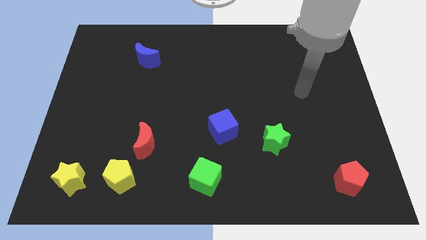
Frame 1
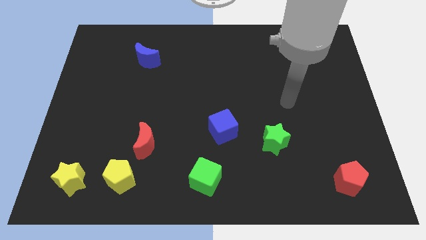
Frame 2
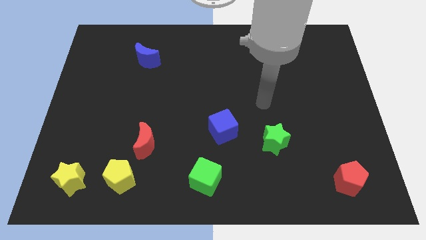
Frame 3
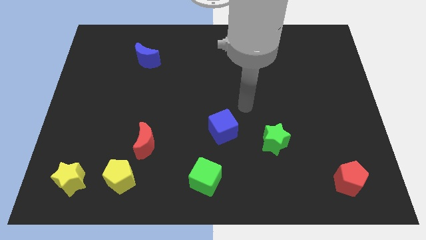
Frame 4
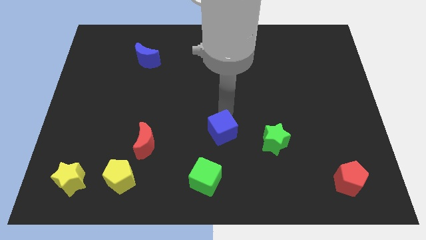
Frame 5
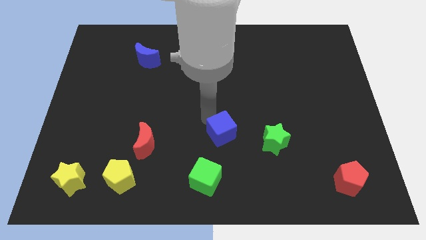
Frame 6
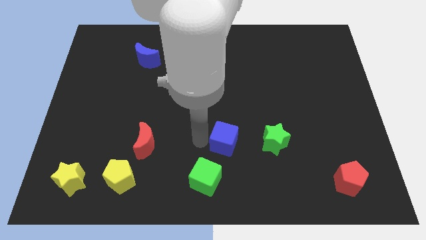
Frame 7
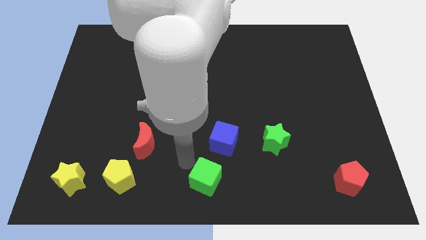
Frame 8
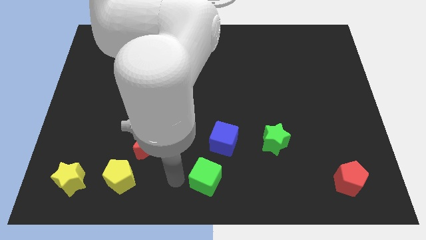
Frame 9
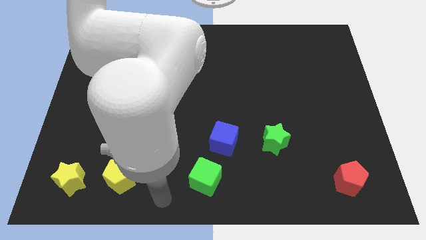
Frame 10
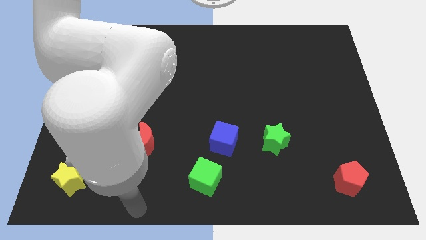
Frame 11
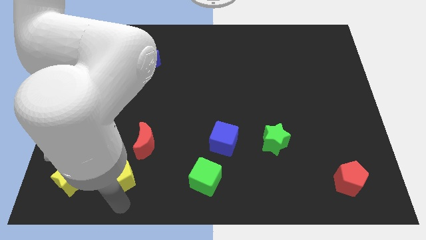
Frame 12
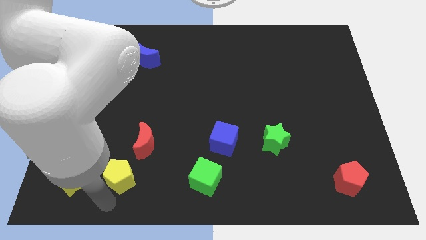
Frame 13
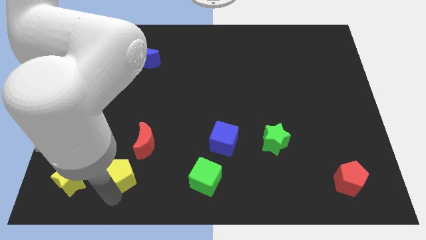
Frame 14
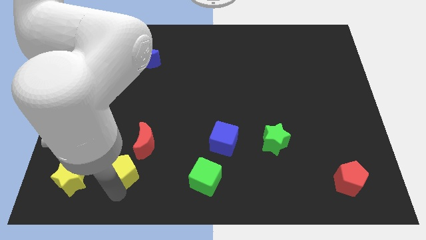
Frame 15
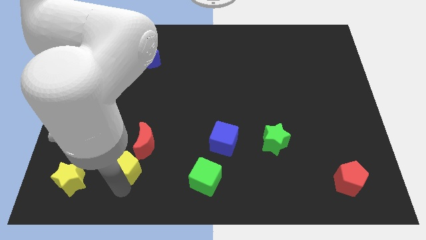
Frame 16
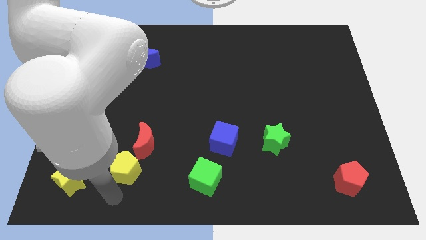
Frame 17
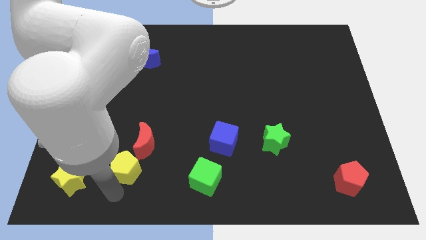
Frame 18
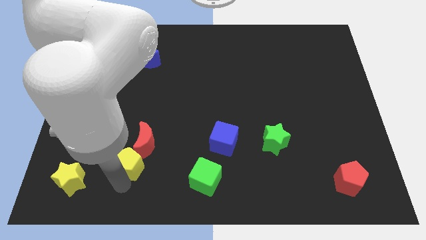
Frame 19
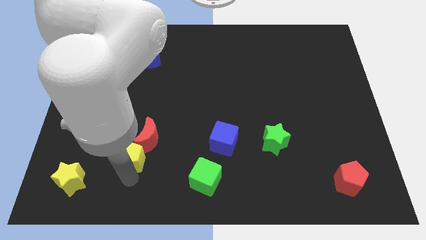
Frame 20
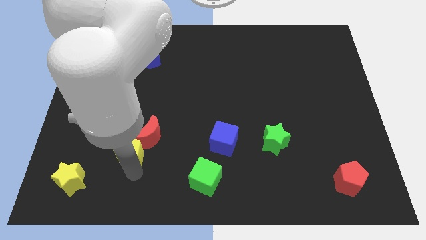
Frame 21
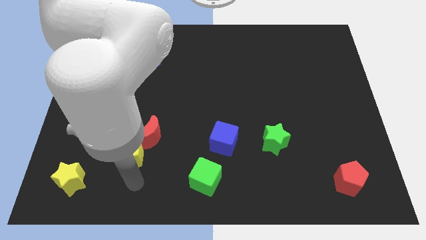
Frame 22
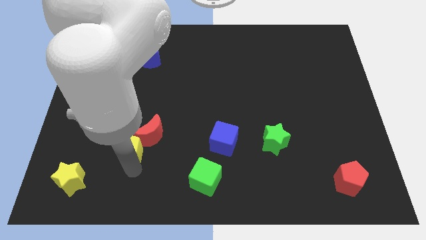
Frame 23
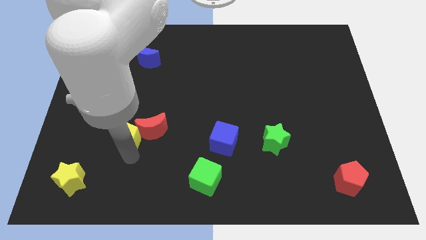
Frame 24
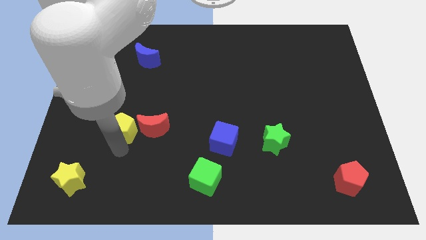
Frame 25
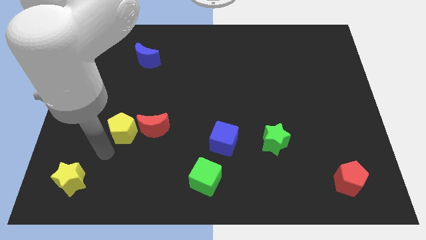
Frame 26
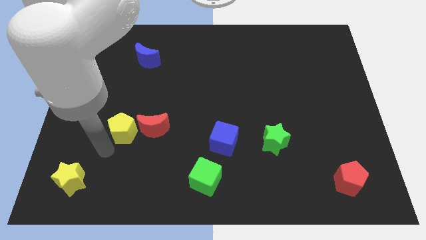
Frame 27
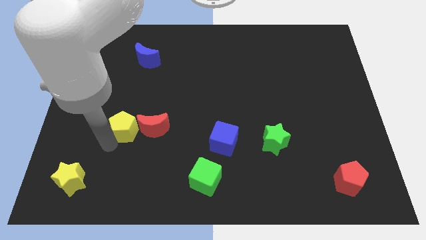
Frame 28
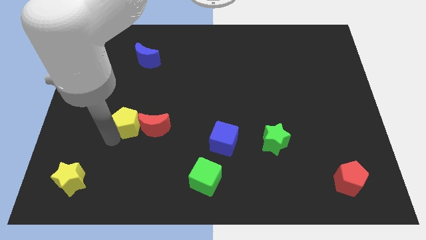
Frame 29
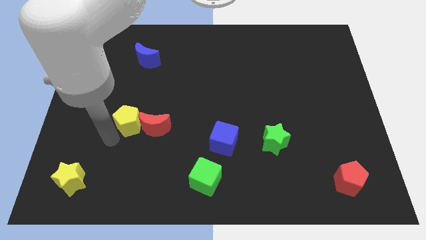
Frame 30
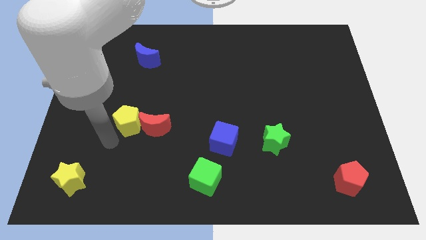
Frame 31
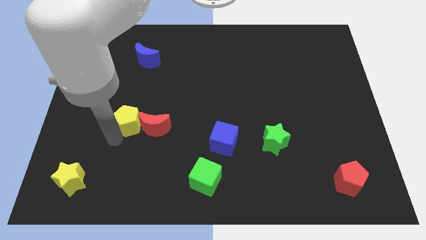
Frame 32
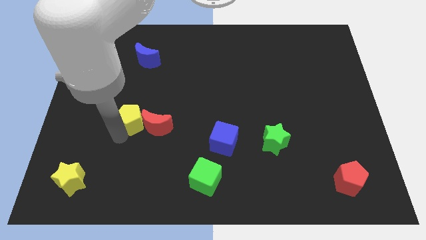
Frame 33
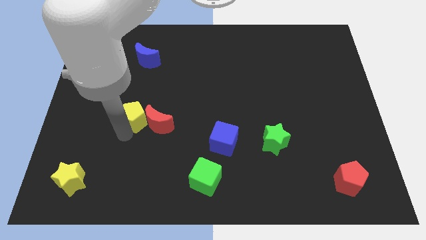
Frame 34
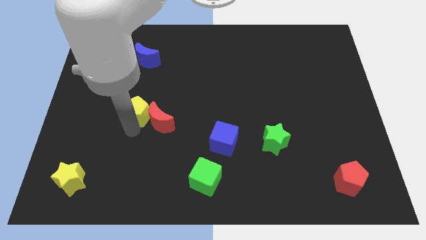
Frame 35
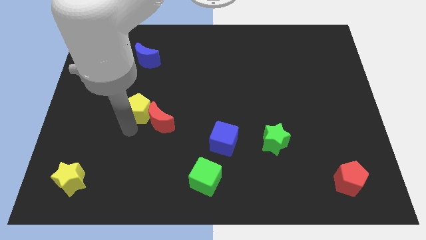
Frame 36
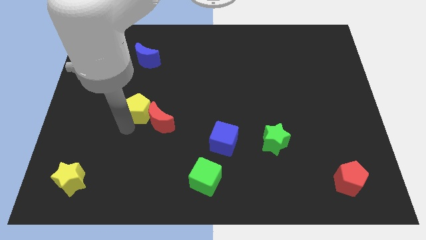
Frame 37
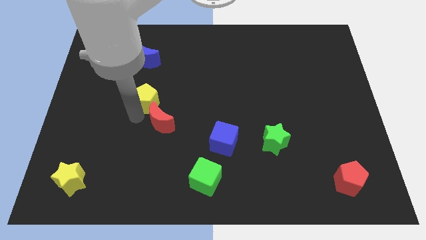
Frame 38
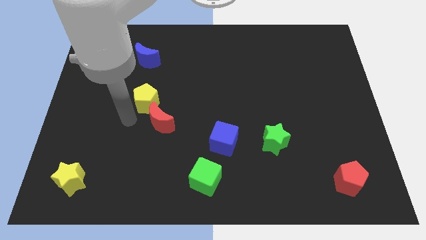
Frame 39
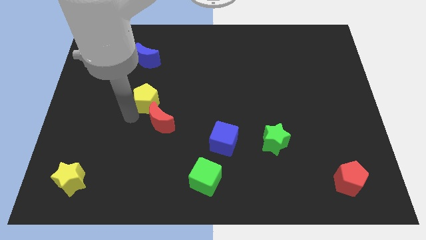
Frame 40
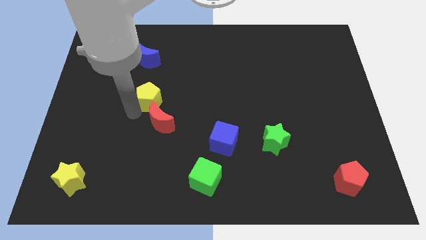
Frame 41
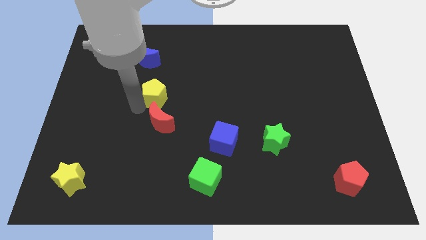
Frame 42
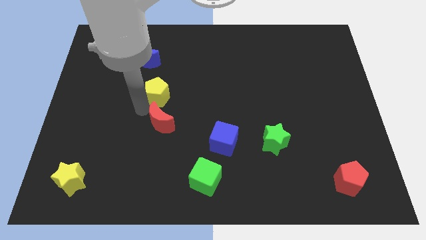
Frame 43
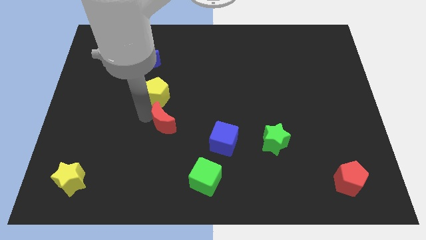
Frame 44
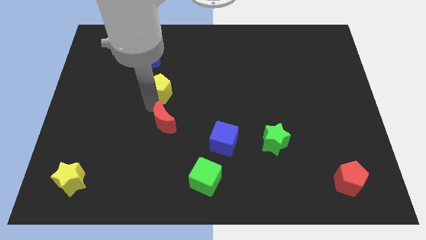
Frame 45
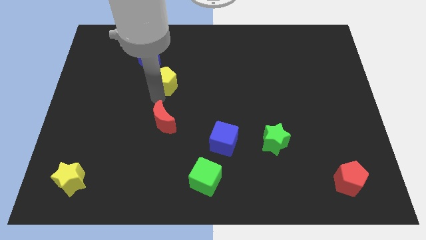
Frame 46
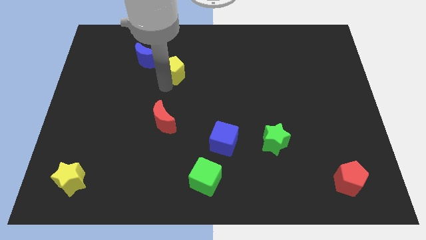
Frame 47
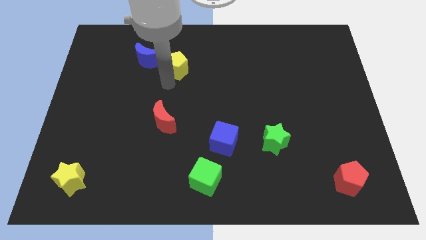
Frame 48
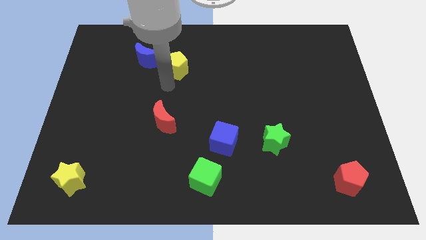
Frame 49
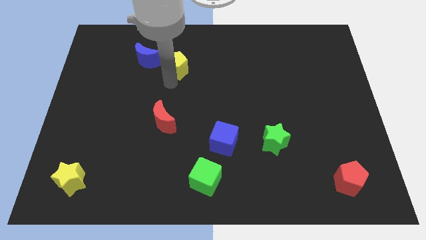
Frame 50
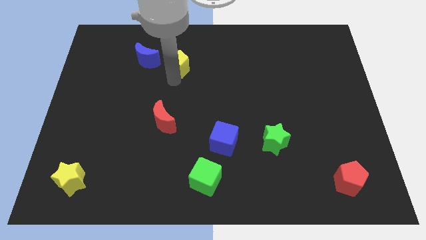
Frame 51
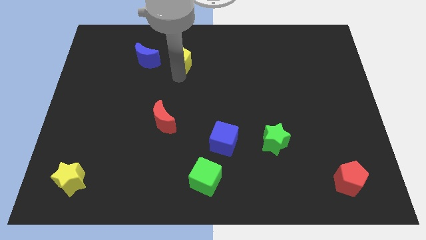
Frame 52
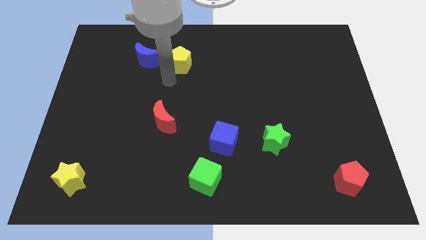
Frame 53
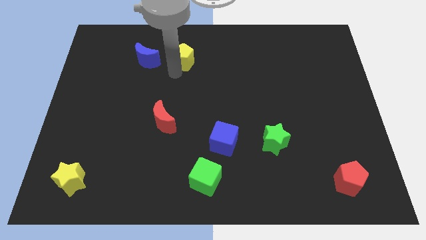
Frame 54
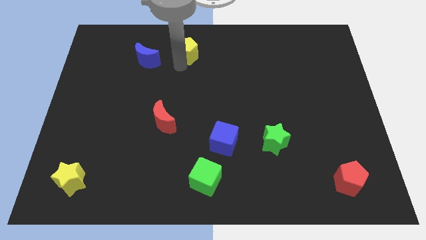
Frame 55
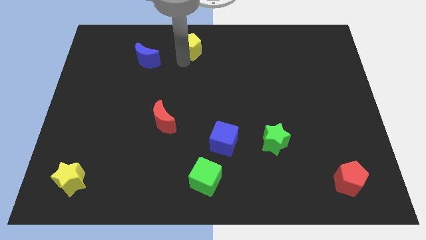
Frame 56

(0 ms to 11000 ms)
push the yellow pentagon to the towards your base

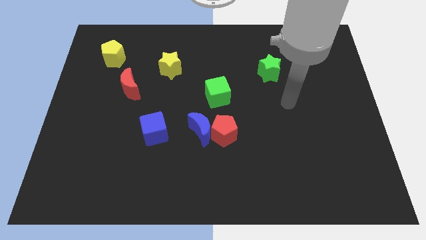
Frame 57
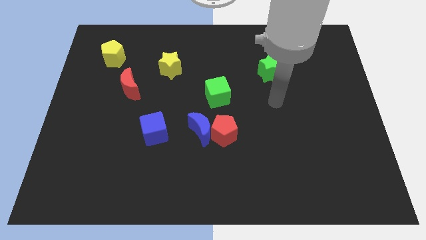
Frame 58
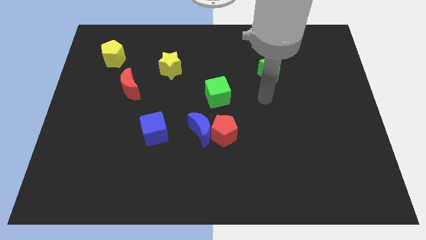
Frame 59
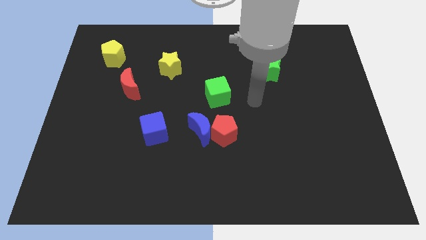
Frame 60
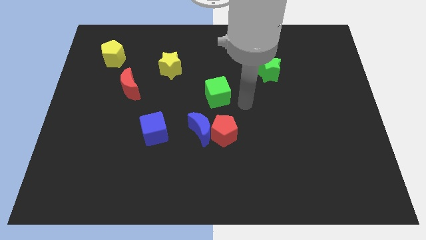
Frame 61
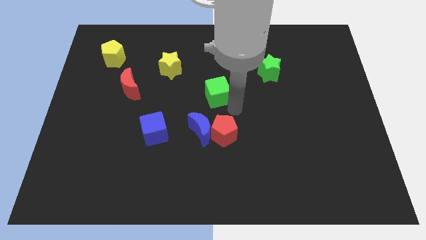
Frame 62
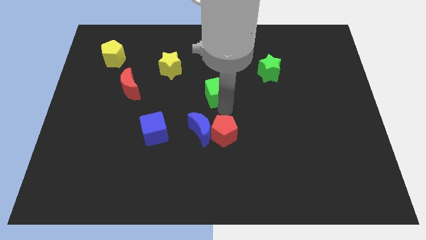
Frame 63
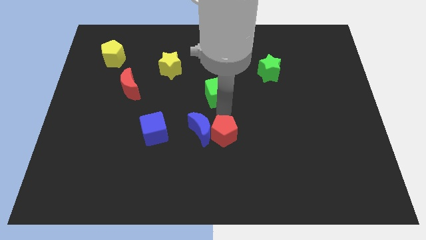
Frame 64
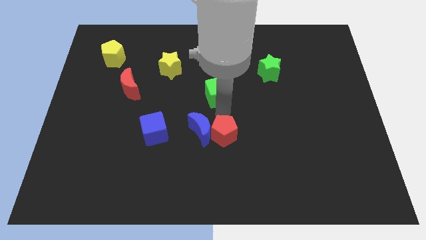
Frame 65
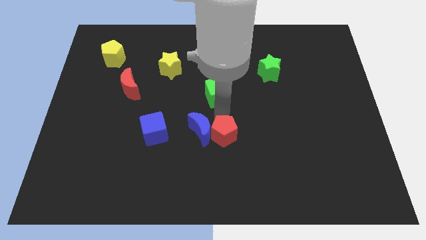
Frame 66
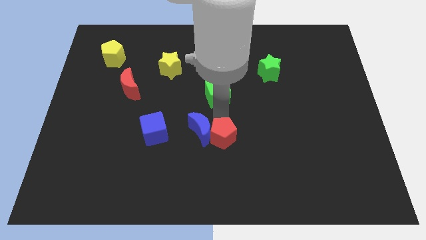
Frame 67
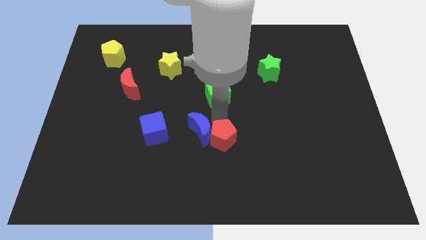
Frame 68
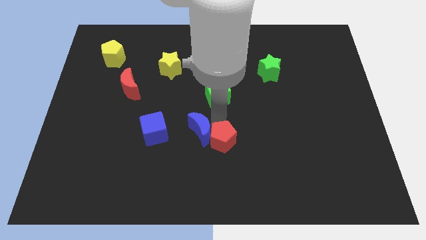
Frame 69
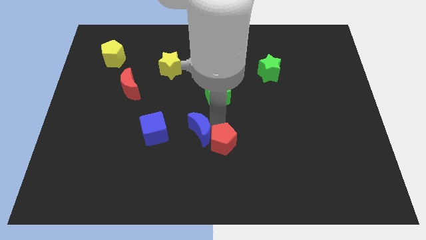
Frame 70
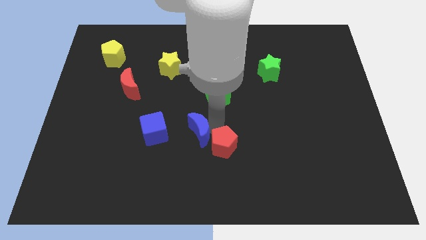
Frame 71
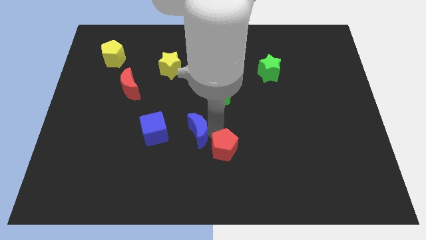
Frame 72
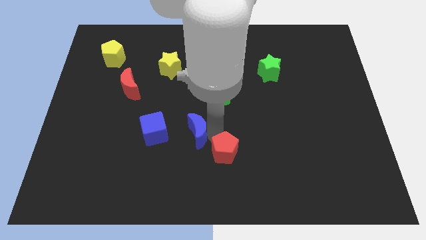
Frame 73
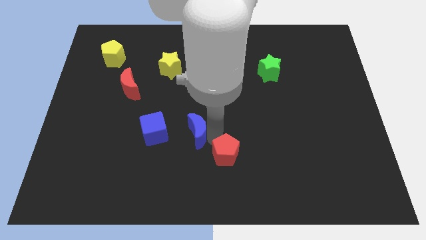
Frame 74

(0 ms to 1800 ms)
push the red pentagon to the bottom

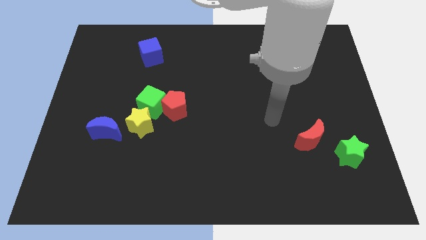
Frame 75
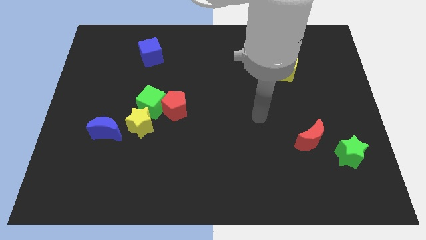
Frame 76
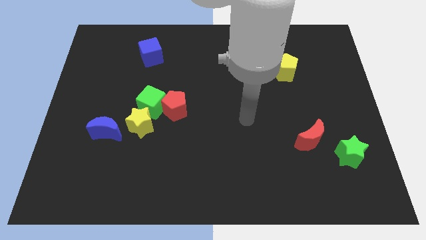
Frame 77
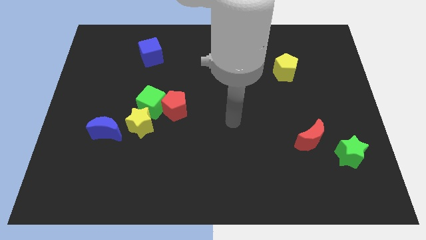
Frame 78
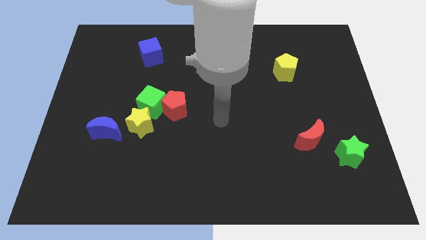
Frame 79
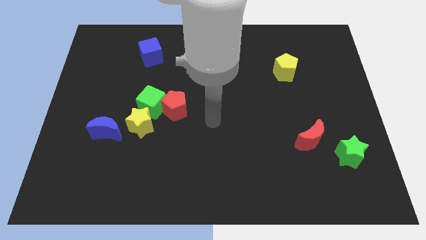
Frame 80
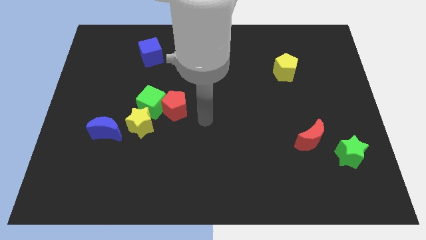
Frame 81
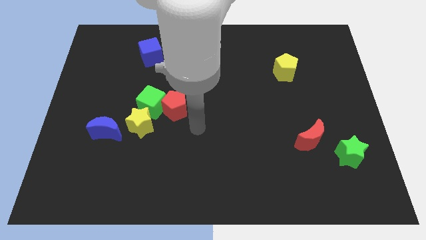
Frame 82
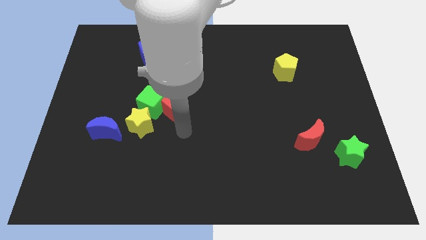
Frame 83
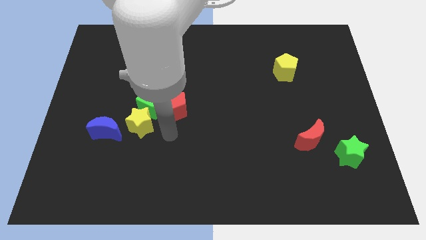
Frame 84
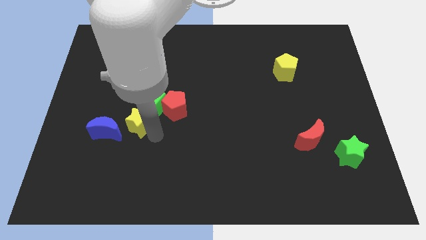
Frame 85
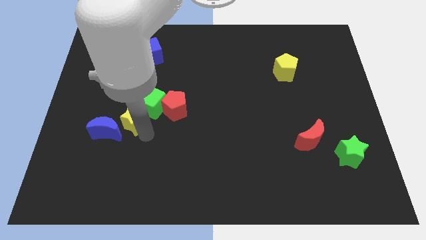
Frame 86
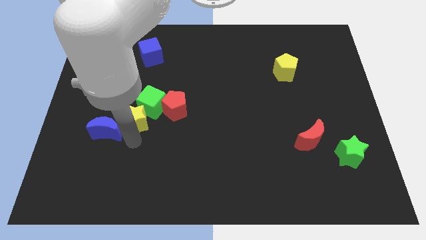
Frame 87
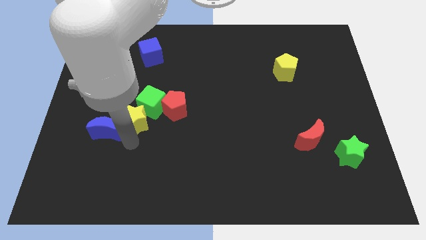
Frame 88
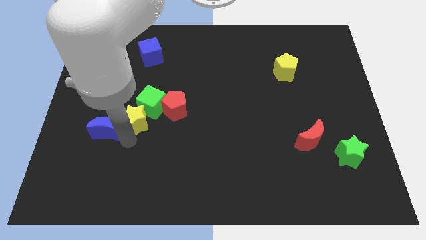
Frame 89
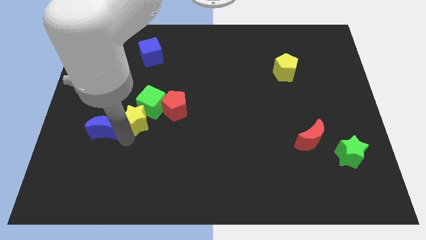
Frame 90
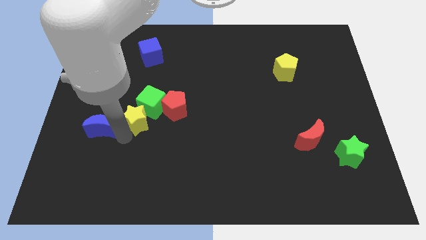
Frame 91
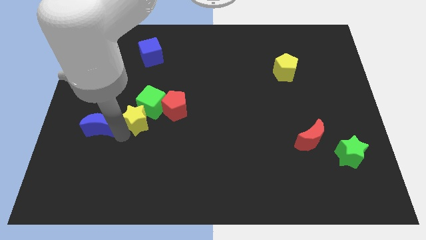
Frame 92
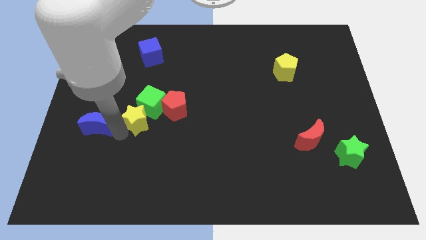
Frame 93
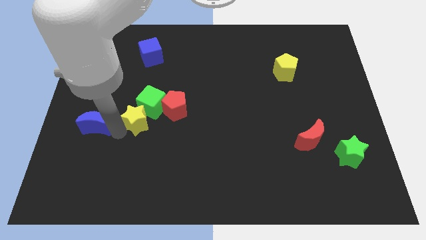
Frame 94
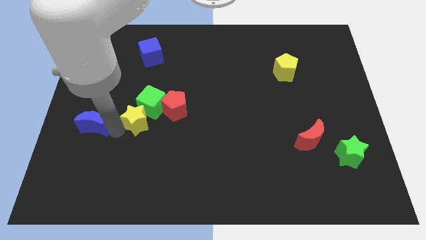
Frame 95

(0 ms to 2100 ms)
move the blue moon to the center left
